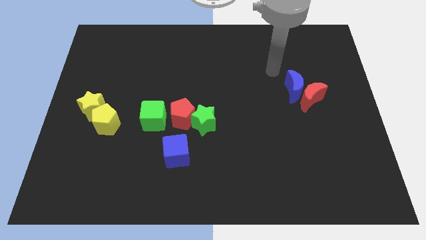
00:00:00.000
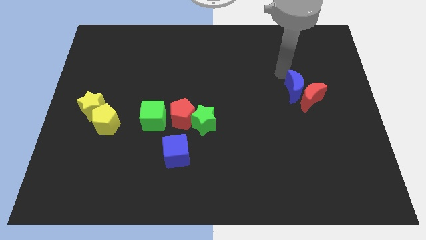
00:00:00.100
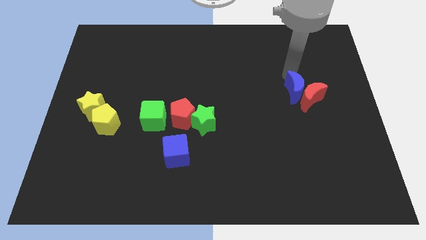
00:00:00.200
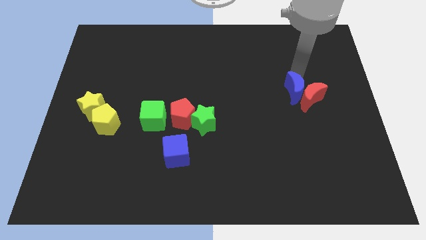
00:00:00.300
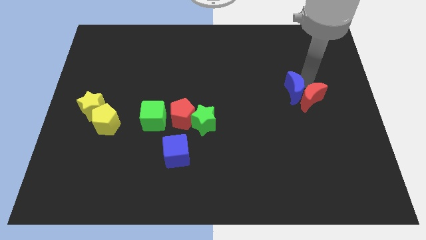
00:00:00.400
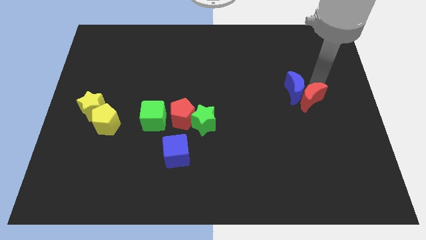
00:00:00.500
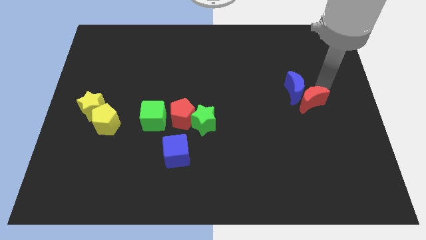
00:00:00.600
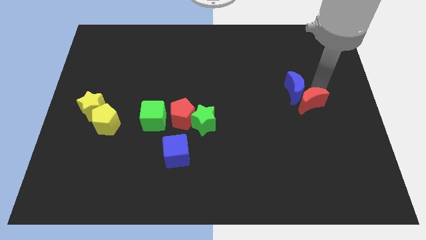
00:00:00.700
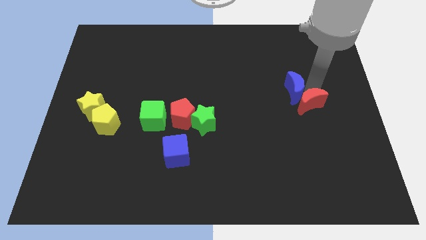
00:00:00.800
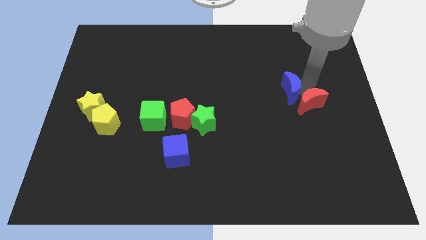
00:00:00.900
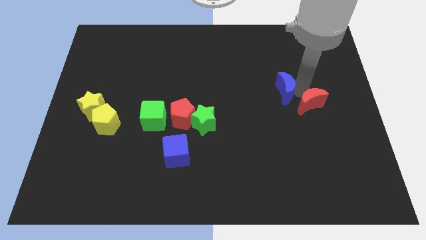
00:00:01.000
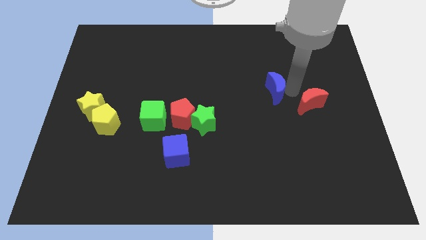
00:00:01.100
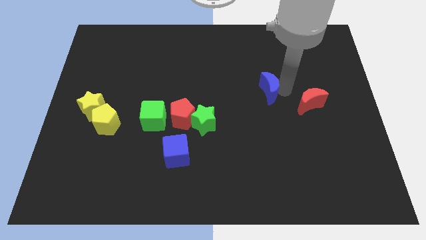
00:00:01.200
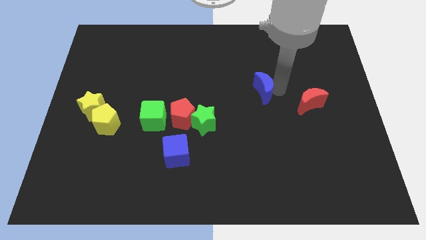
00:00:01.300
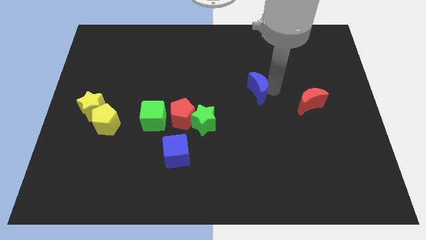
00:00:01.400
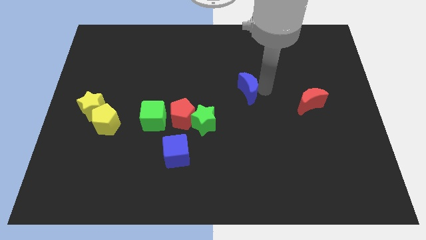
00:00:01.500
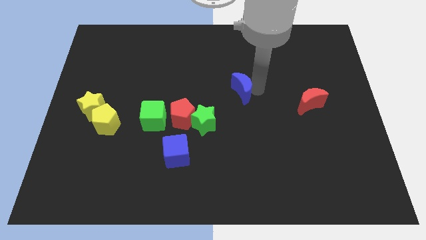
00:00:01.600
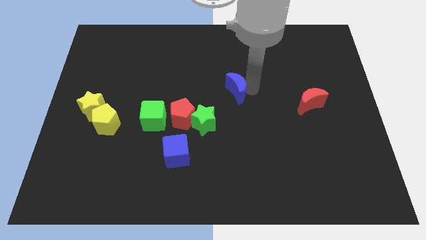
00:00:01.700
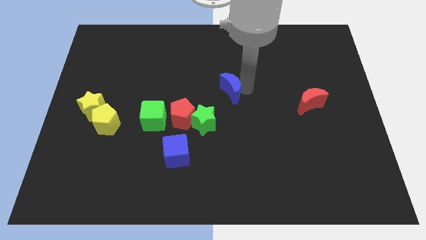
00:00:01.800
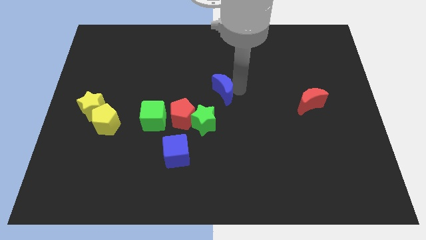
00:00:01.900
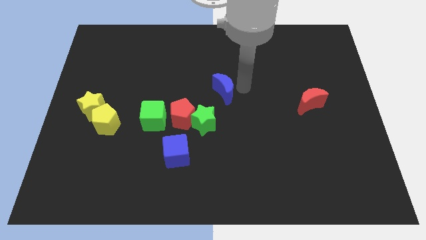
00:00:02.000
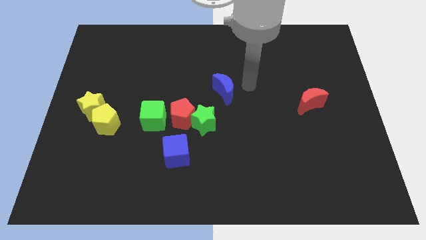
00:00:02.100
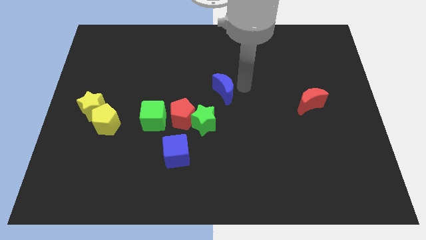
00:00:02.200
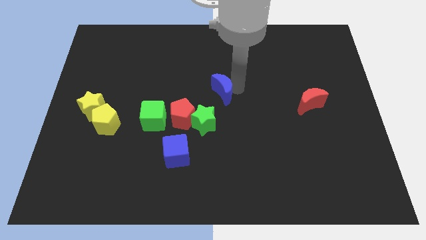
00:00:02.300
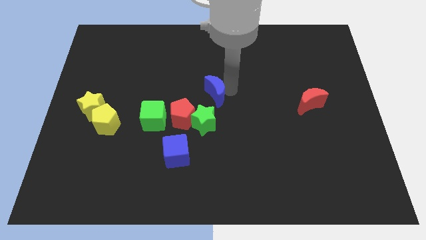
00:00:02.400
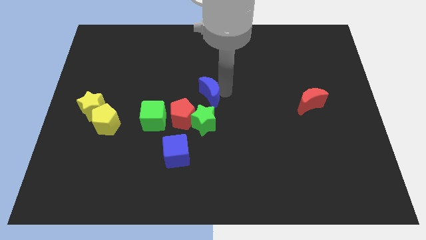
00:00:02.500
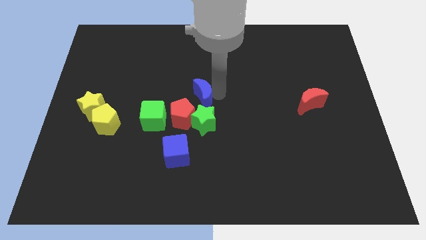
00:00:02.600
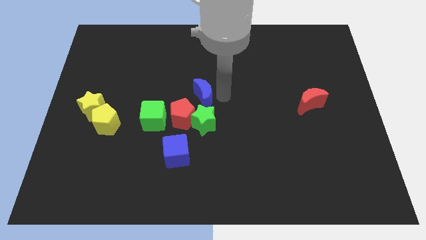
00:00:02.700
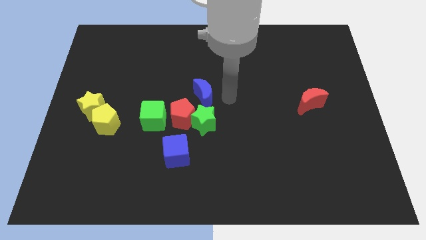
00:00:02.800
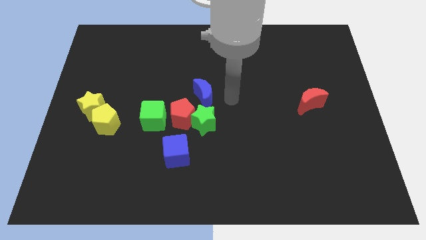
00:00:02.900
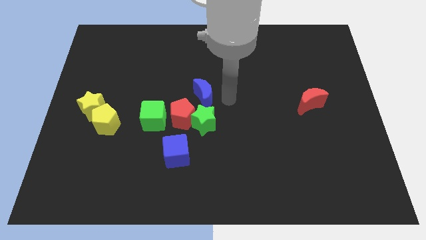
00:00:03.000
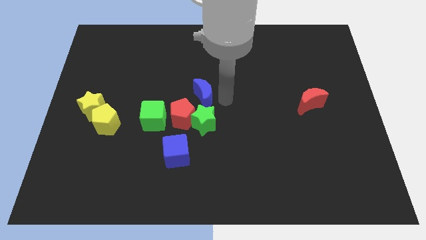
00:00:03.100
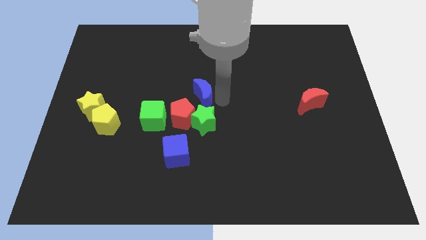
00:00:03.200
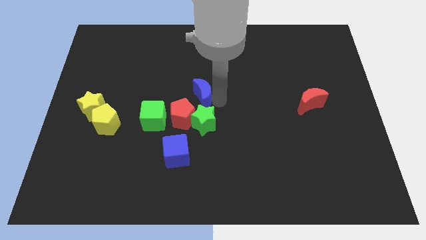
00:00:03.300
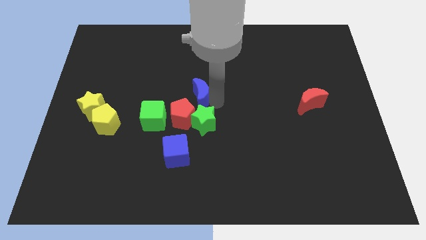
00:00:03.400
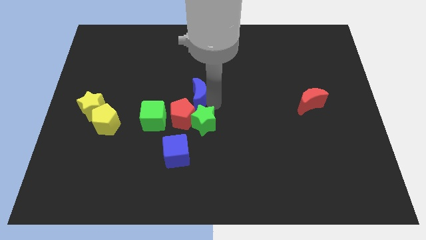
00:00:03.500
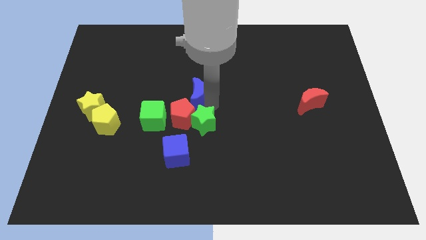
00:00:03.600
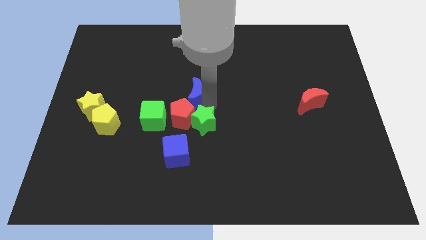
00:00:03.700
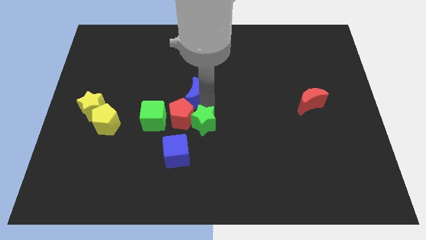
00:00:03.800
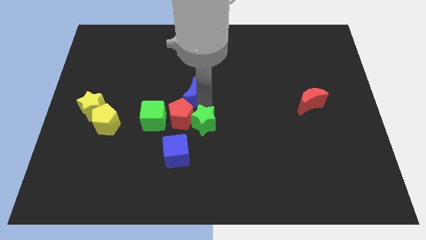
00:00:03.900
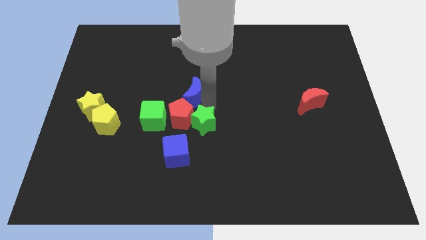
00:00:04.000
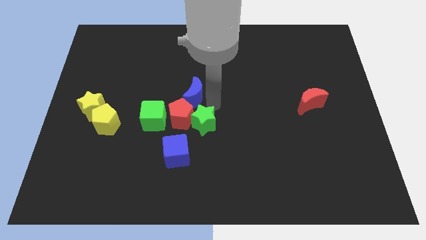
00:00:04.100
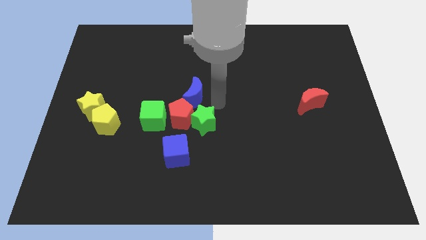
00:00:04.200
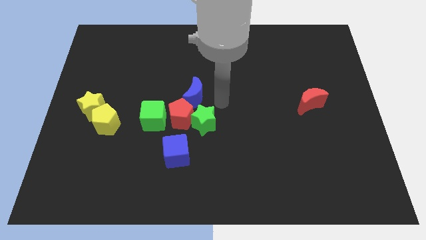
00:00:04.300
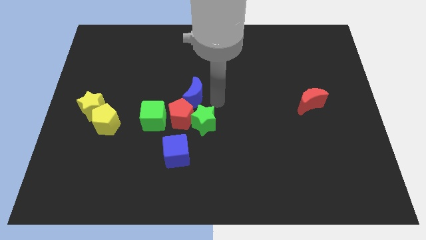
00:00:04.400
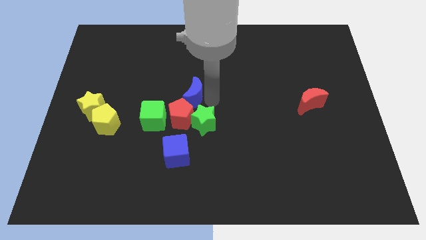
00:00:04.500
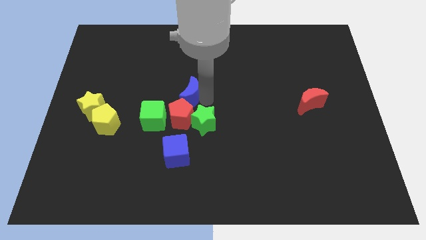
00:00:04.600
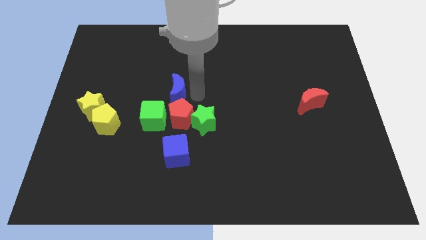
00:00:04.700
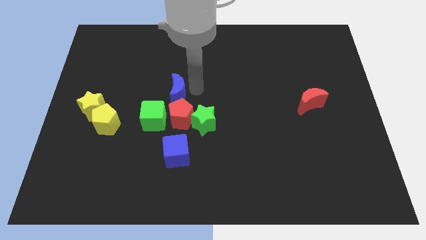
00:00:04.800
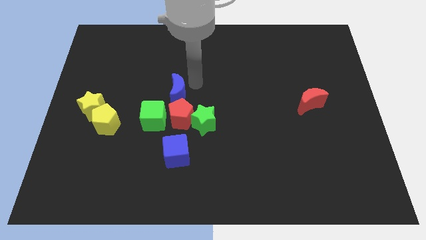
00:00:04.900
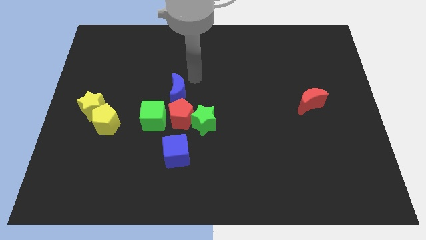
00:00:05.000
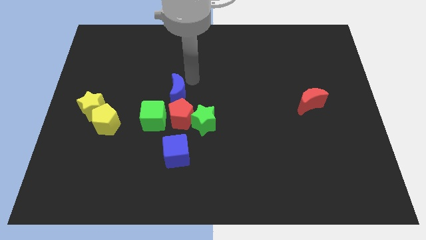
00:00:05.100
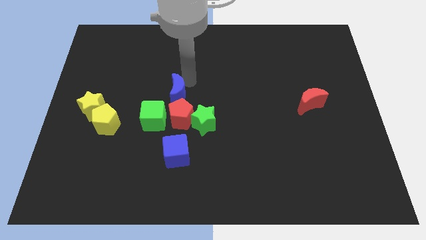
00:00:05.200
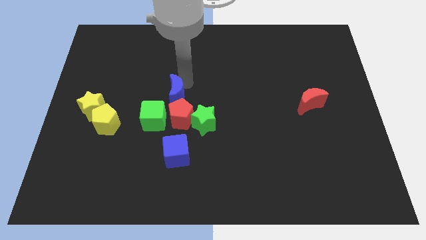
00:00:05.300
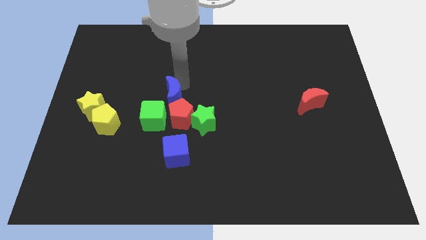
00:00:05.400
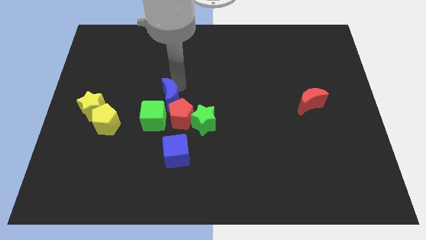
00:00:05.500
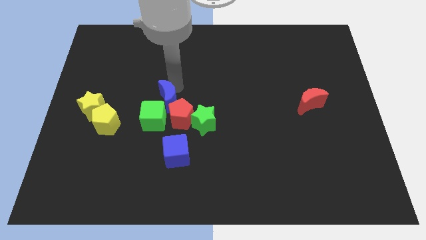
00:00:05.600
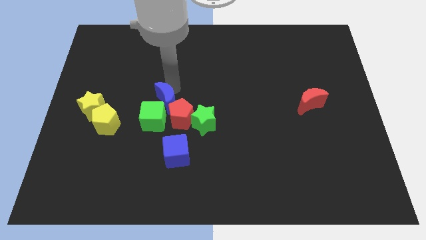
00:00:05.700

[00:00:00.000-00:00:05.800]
put the blue moon next to the green cube

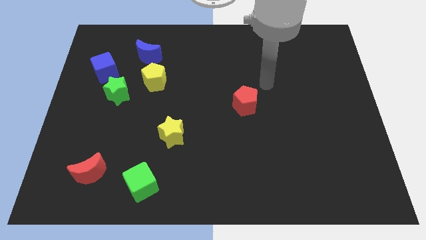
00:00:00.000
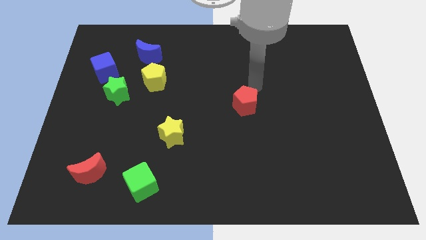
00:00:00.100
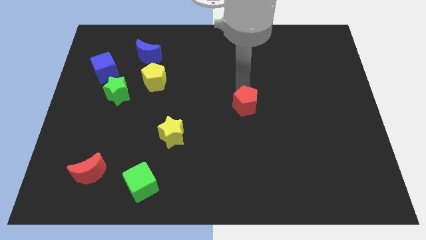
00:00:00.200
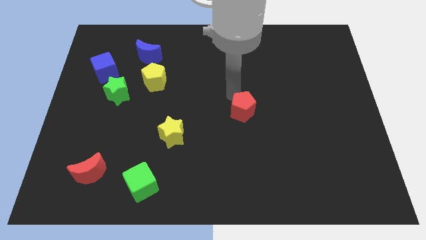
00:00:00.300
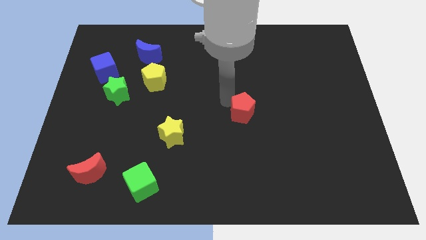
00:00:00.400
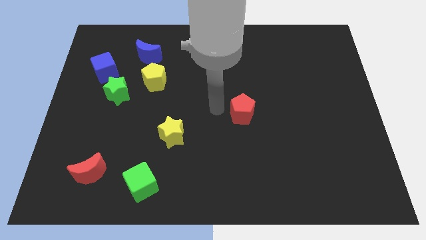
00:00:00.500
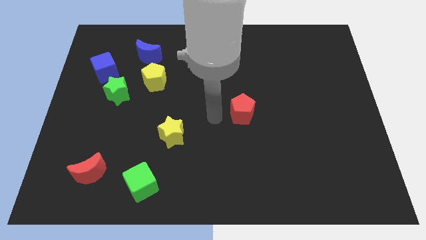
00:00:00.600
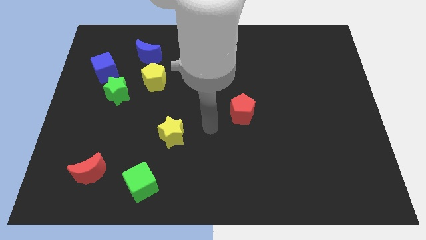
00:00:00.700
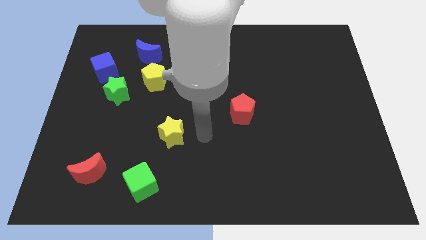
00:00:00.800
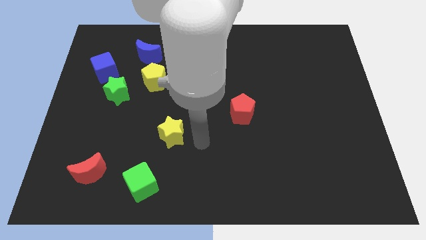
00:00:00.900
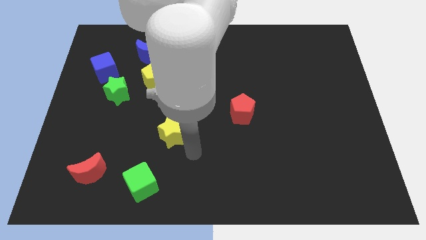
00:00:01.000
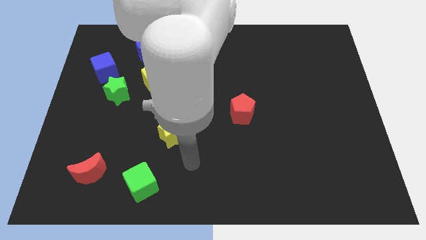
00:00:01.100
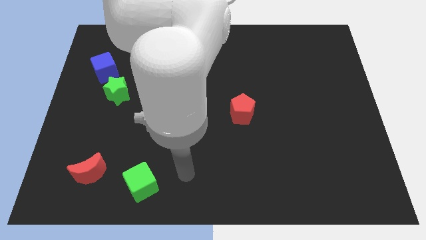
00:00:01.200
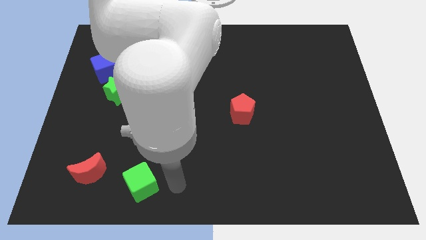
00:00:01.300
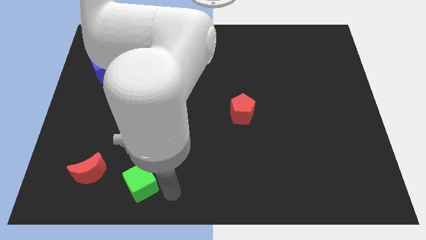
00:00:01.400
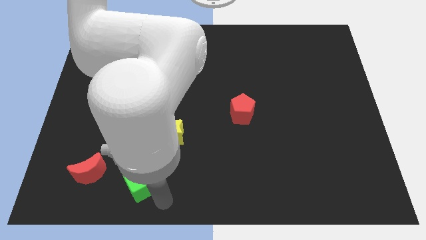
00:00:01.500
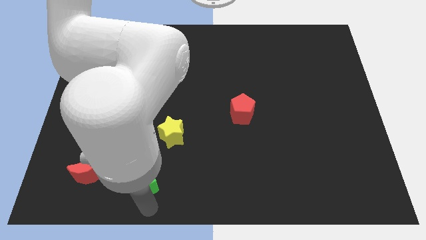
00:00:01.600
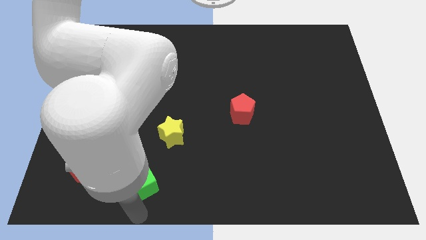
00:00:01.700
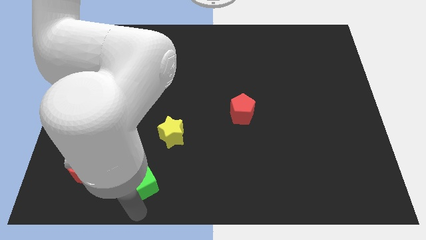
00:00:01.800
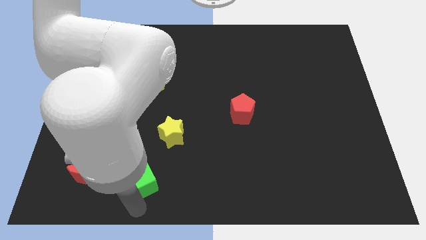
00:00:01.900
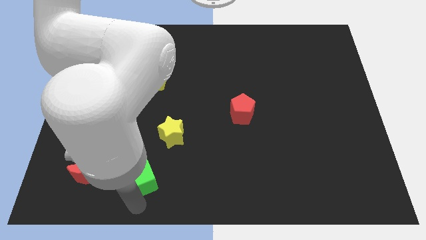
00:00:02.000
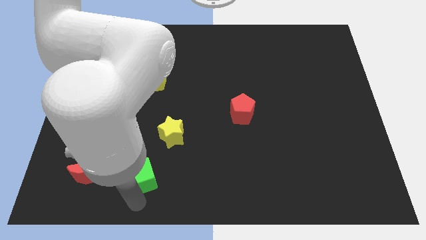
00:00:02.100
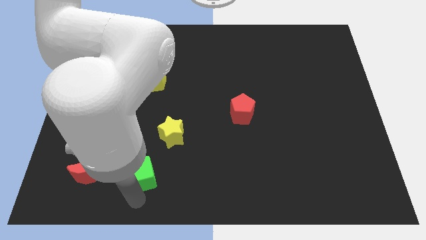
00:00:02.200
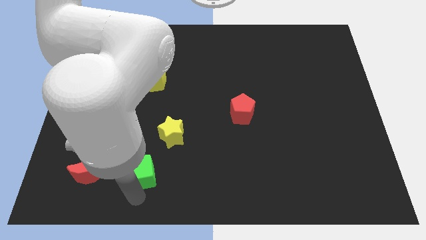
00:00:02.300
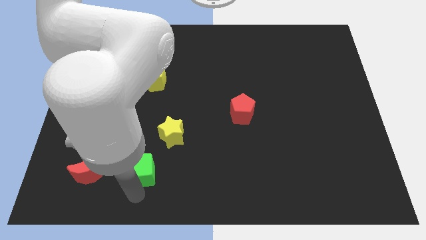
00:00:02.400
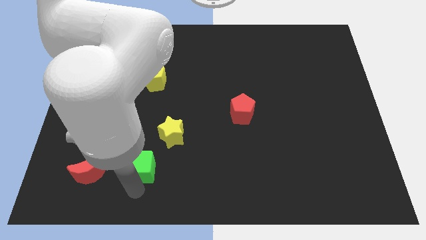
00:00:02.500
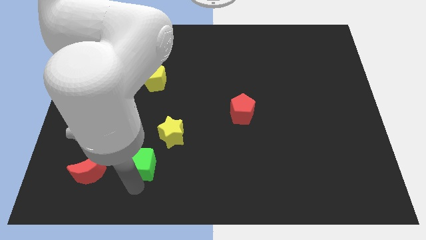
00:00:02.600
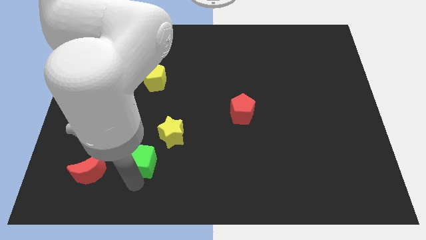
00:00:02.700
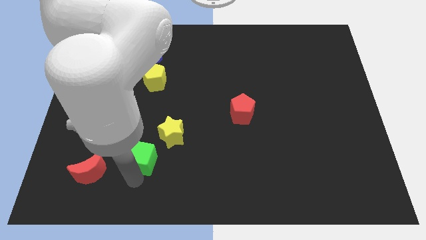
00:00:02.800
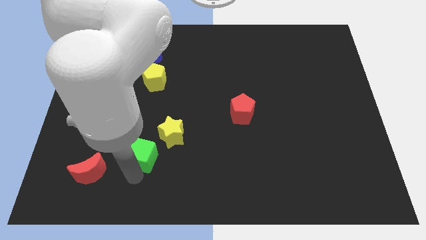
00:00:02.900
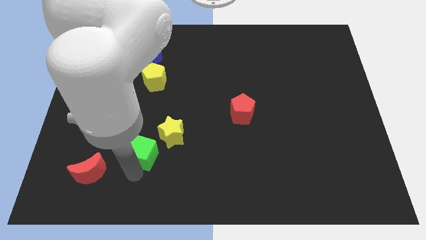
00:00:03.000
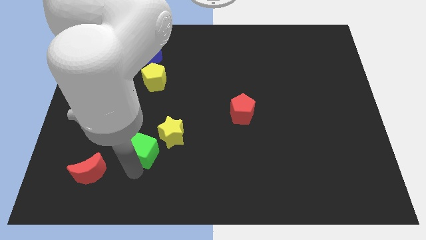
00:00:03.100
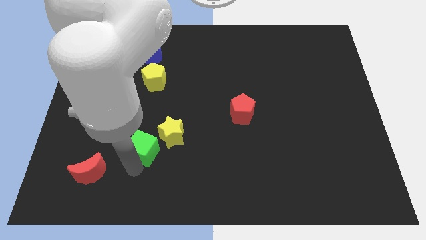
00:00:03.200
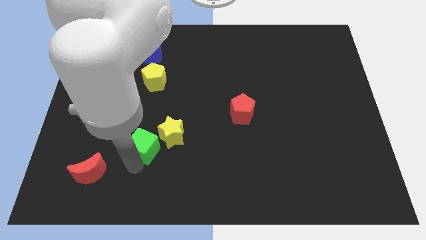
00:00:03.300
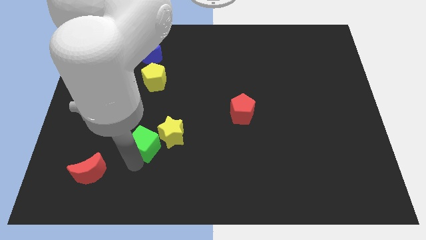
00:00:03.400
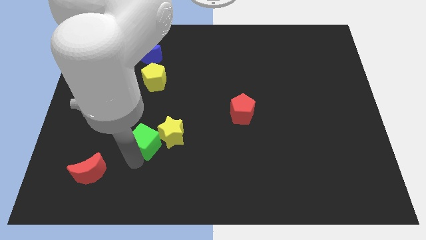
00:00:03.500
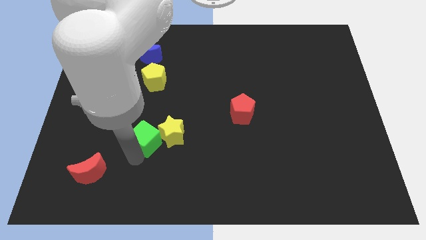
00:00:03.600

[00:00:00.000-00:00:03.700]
slide the green cube to the yellow star
